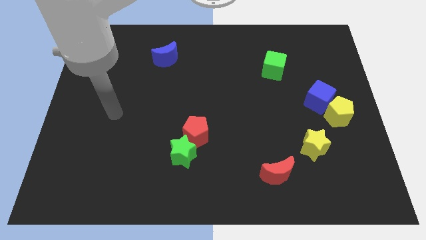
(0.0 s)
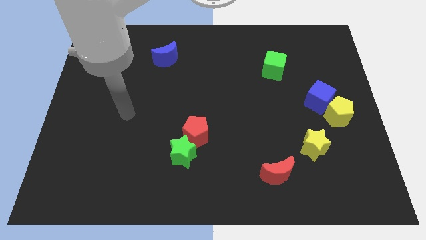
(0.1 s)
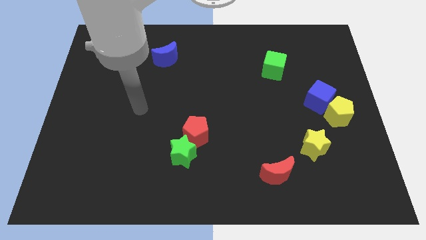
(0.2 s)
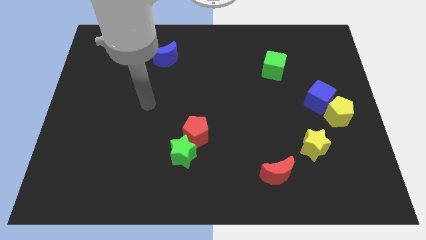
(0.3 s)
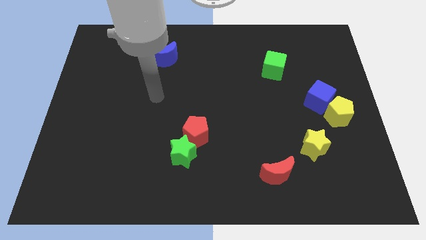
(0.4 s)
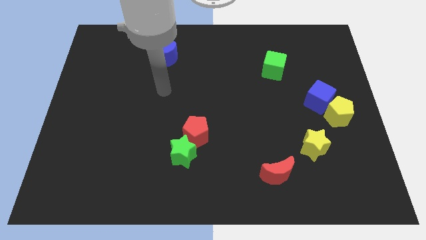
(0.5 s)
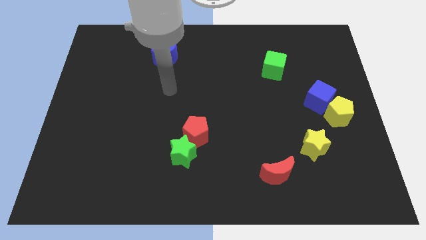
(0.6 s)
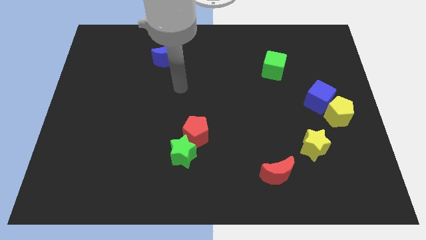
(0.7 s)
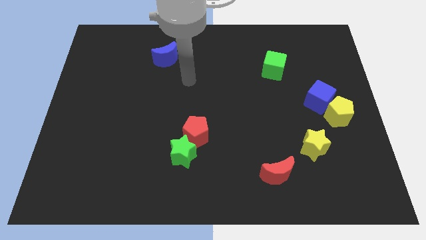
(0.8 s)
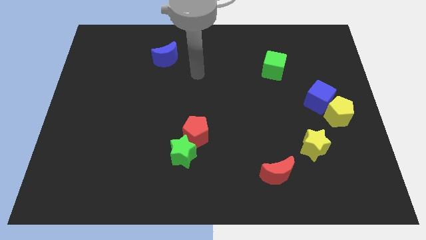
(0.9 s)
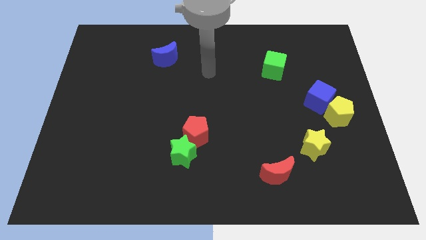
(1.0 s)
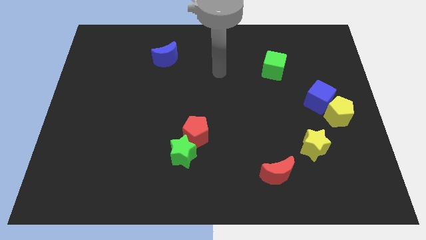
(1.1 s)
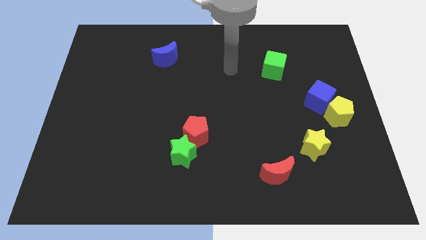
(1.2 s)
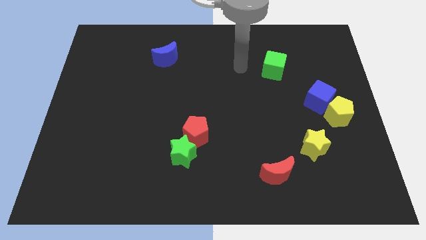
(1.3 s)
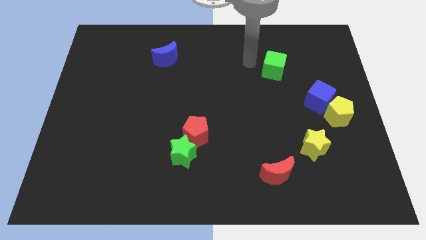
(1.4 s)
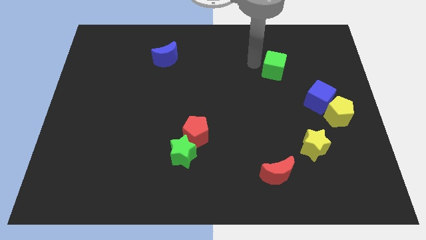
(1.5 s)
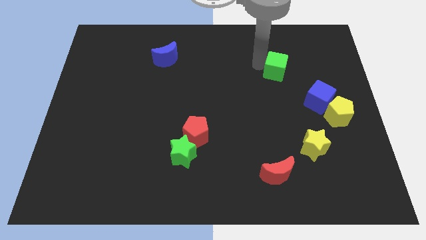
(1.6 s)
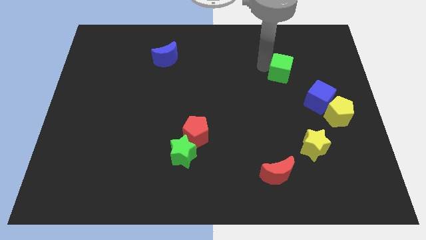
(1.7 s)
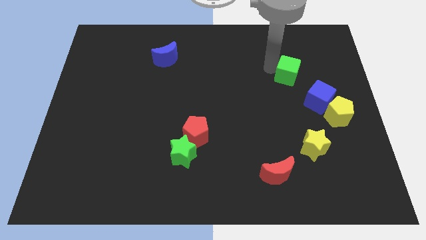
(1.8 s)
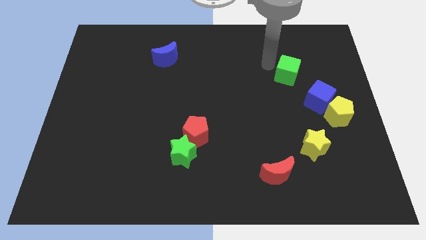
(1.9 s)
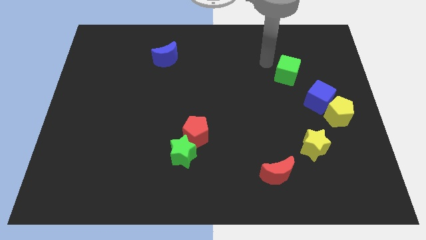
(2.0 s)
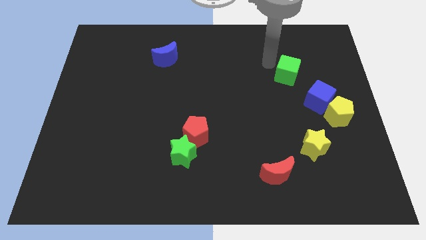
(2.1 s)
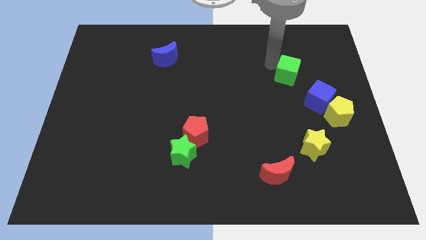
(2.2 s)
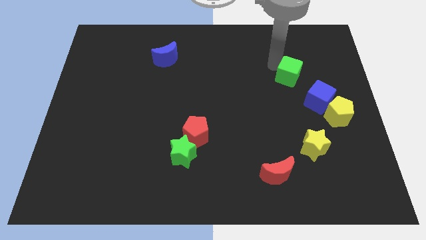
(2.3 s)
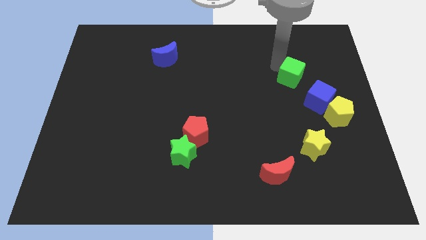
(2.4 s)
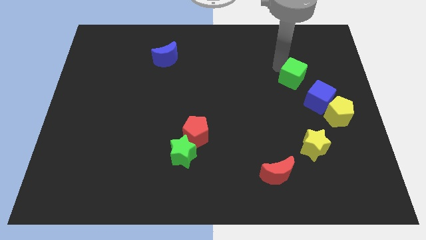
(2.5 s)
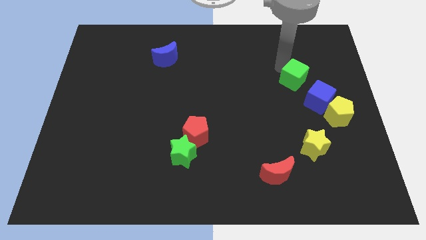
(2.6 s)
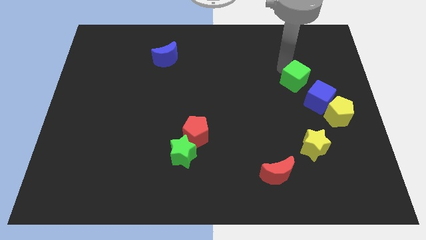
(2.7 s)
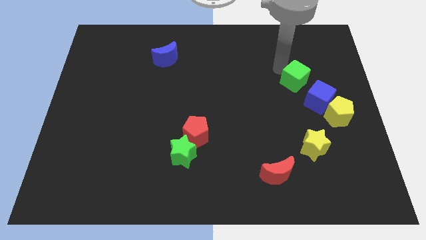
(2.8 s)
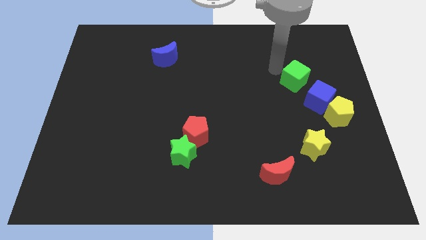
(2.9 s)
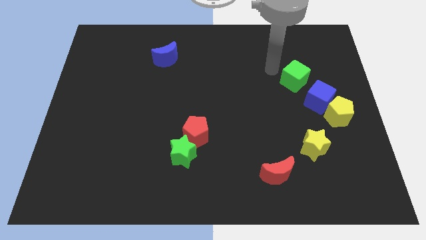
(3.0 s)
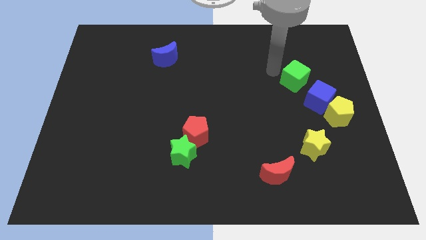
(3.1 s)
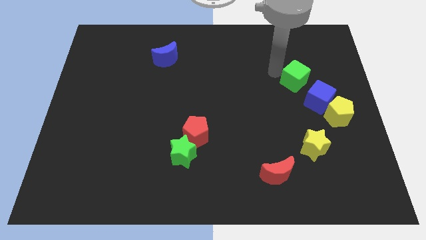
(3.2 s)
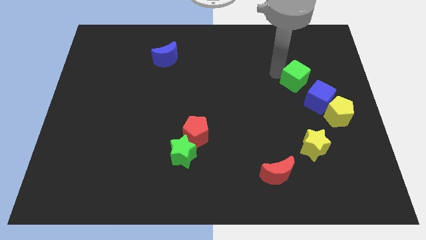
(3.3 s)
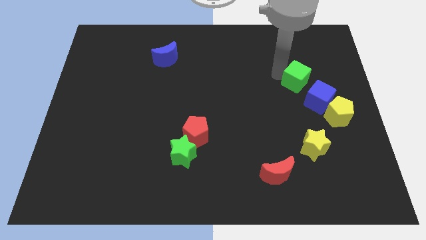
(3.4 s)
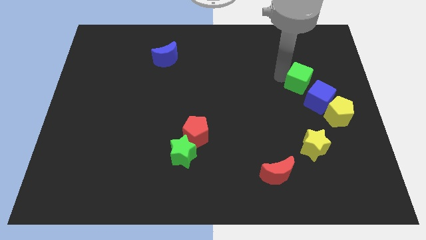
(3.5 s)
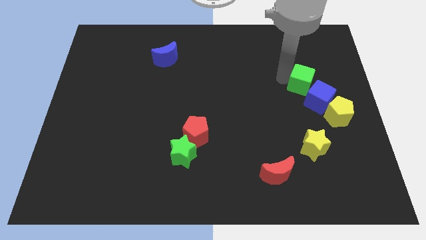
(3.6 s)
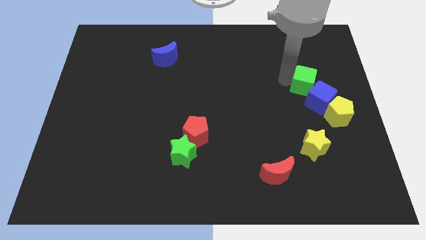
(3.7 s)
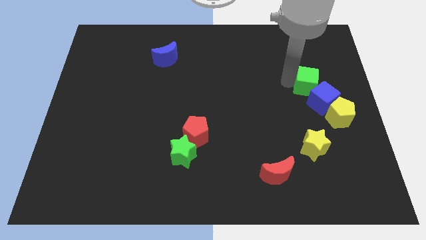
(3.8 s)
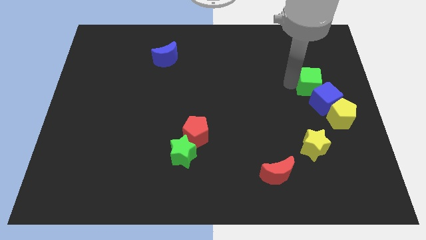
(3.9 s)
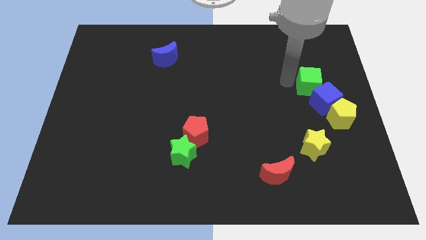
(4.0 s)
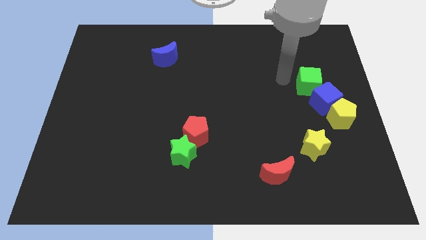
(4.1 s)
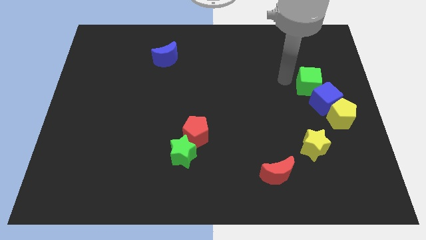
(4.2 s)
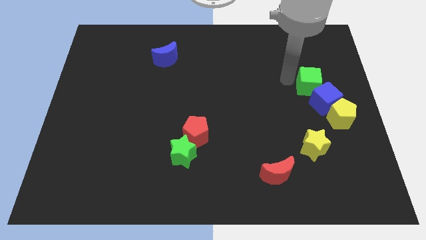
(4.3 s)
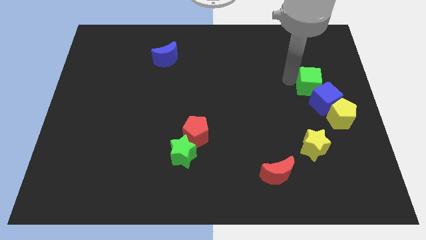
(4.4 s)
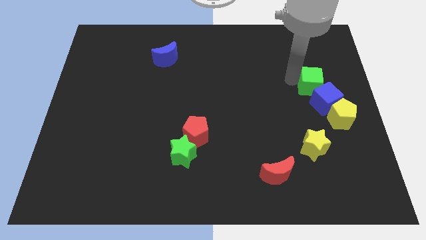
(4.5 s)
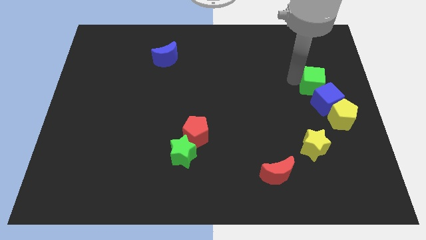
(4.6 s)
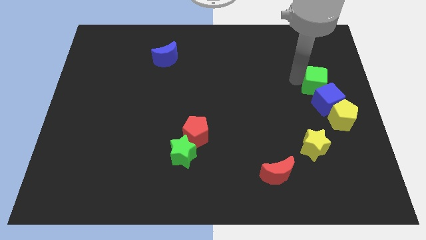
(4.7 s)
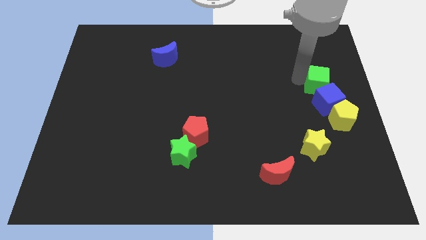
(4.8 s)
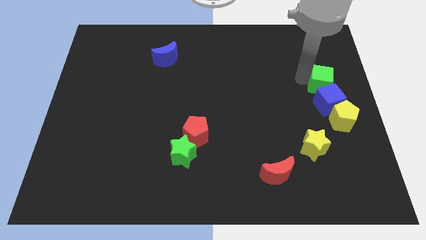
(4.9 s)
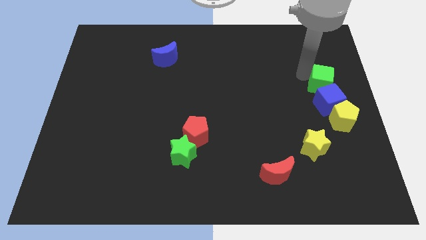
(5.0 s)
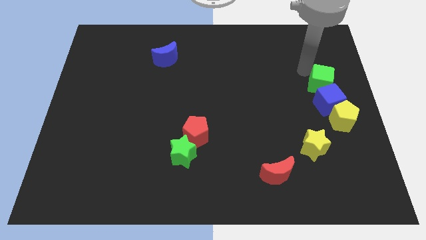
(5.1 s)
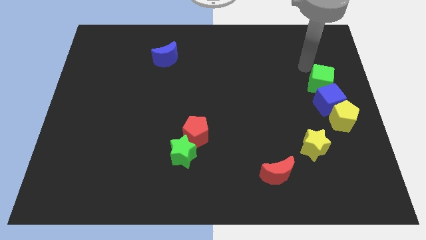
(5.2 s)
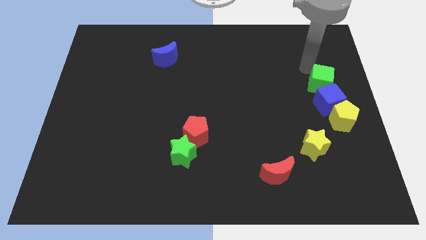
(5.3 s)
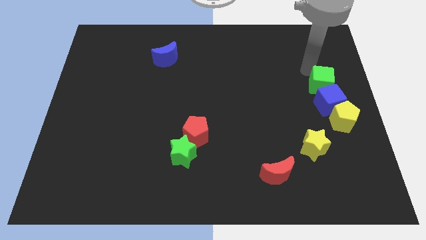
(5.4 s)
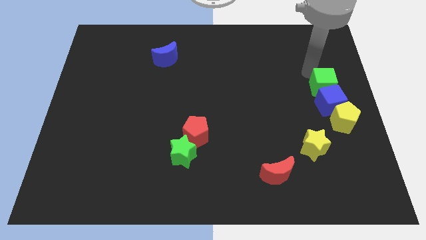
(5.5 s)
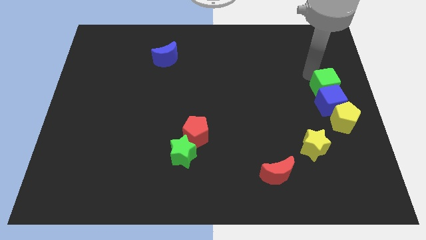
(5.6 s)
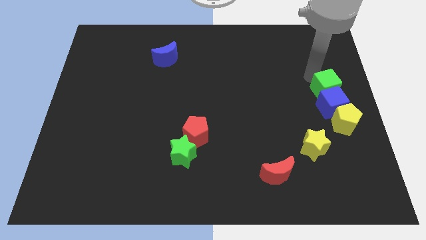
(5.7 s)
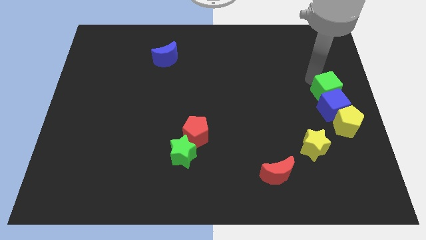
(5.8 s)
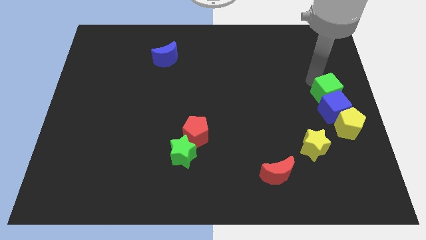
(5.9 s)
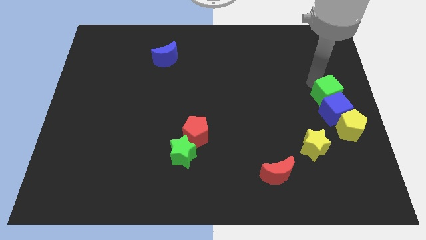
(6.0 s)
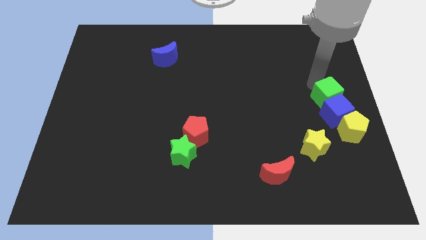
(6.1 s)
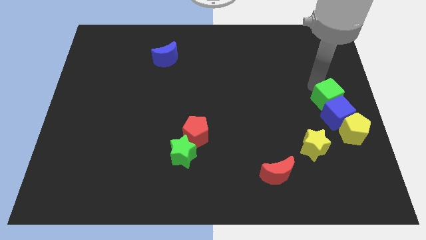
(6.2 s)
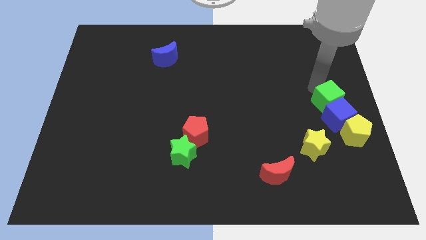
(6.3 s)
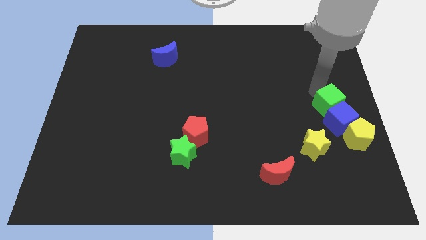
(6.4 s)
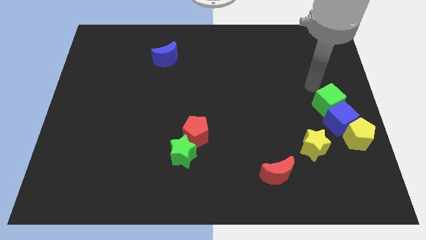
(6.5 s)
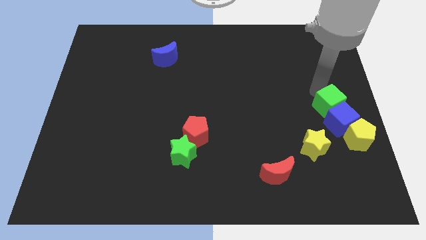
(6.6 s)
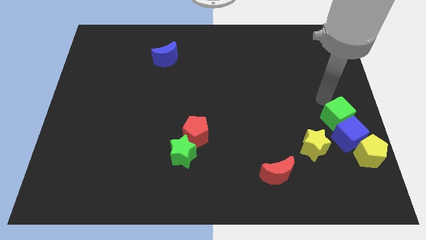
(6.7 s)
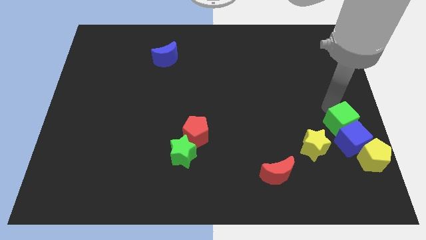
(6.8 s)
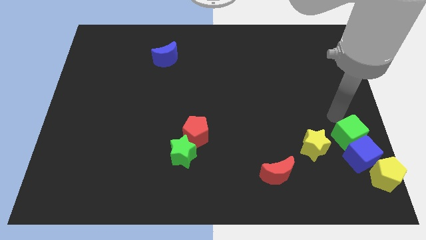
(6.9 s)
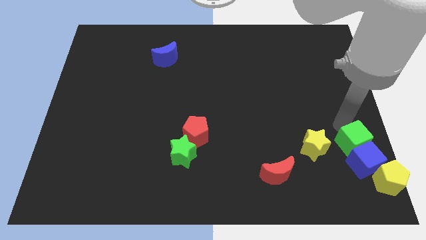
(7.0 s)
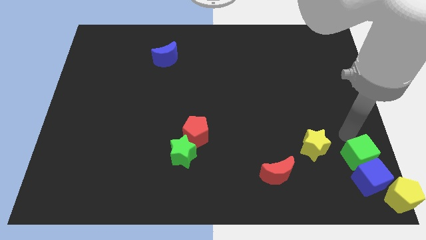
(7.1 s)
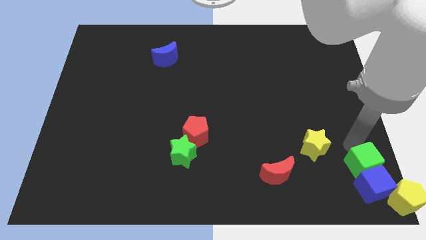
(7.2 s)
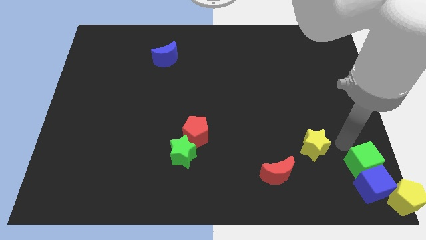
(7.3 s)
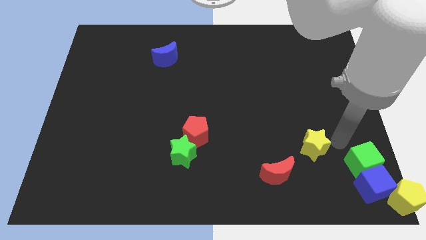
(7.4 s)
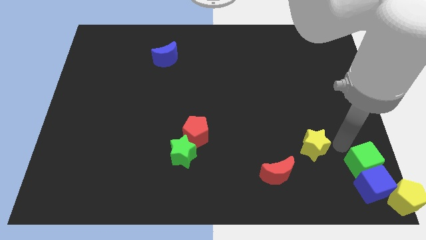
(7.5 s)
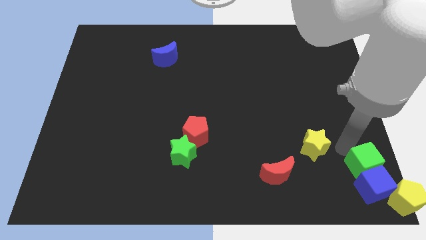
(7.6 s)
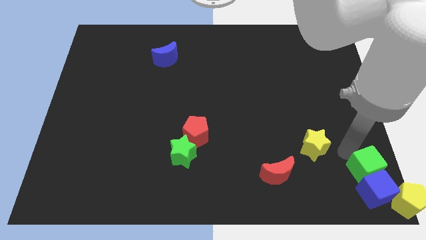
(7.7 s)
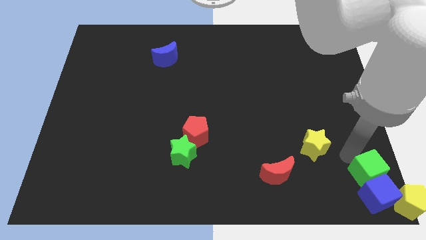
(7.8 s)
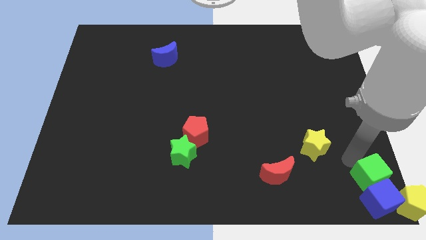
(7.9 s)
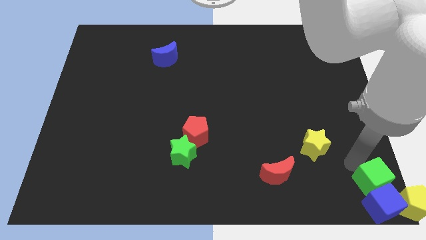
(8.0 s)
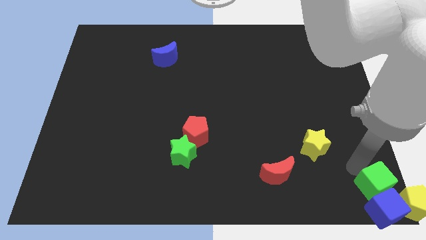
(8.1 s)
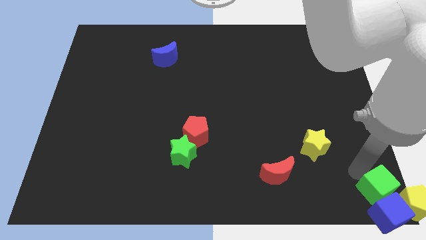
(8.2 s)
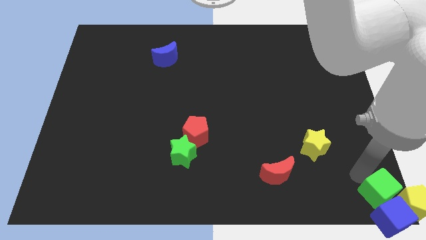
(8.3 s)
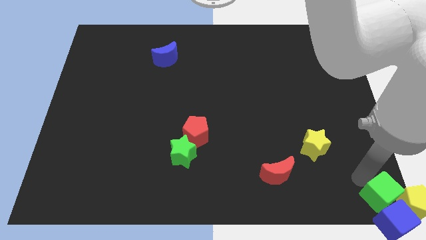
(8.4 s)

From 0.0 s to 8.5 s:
push the green cube towards the yellow pentagon
